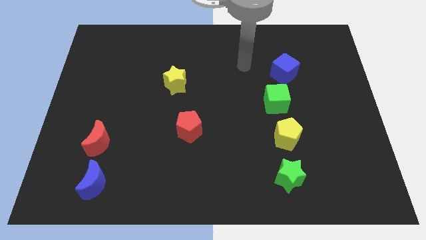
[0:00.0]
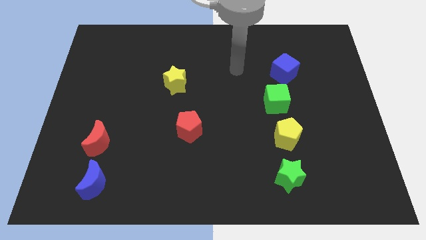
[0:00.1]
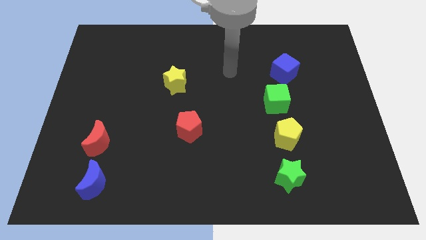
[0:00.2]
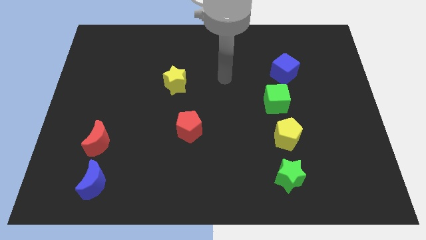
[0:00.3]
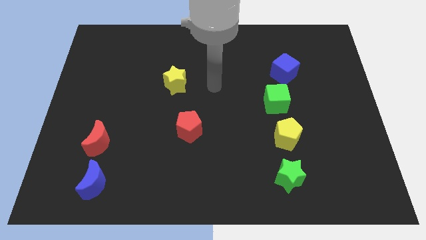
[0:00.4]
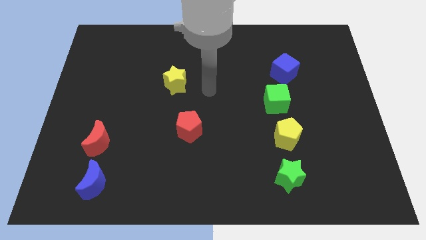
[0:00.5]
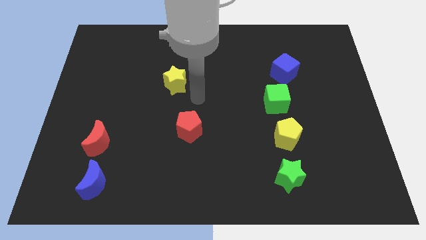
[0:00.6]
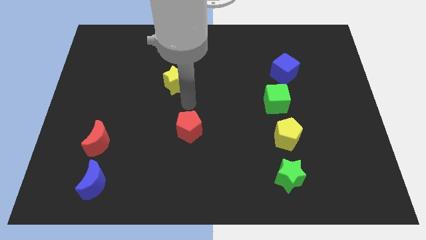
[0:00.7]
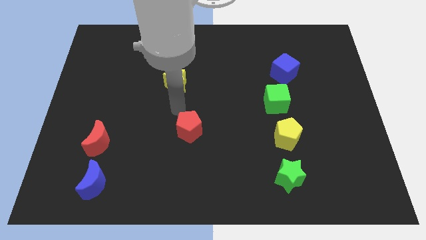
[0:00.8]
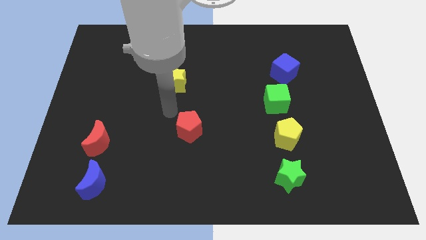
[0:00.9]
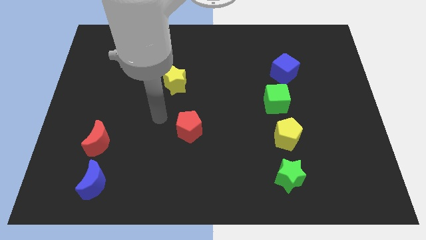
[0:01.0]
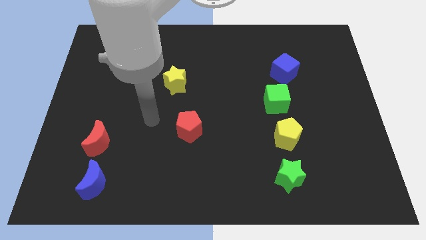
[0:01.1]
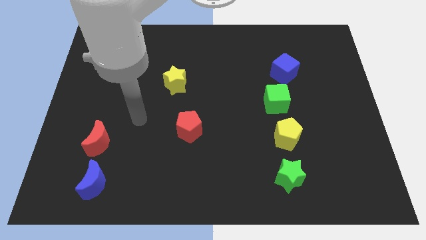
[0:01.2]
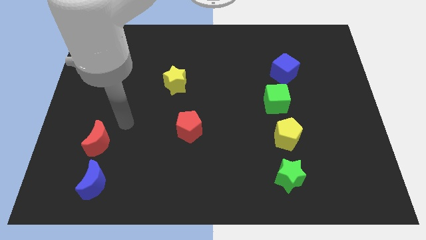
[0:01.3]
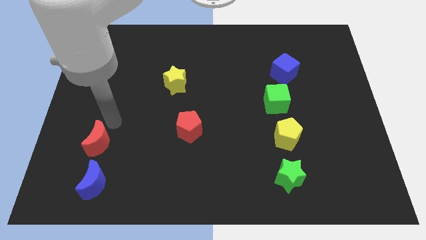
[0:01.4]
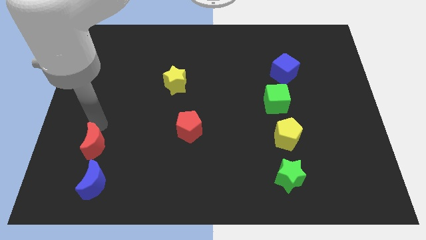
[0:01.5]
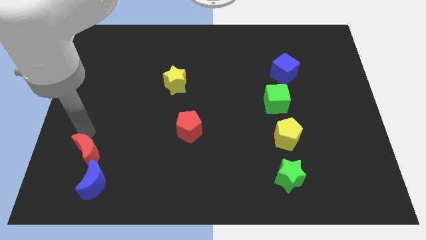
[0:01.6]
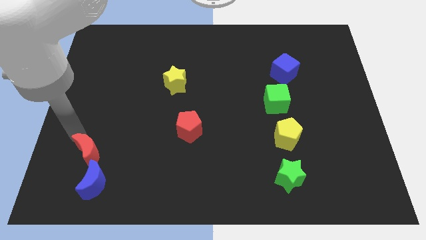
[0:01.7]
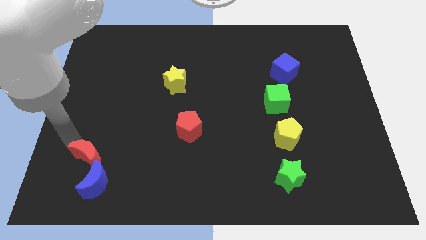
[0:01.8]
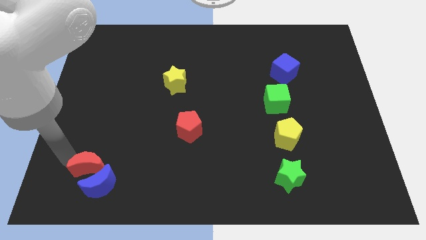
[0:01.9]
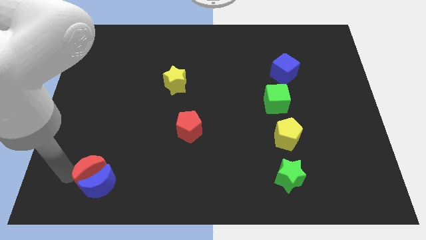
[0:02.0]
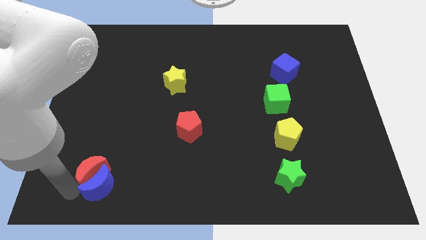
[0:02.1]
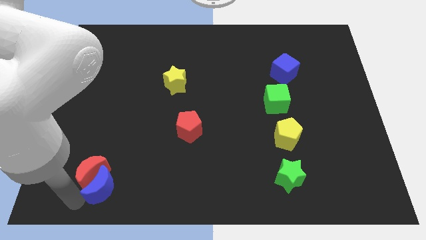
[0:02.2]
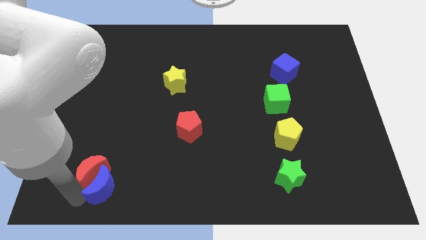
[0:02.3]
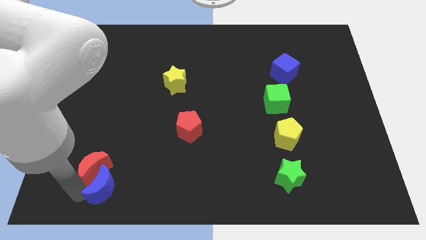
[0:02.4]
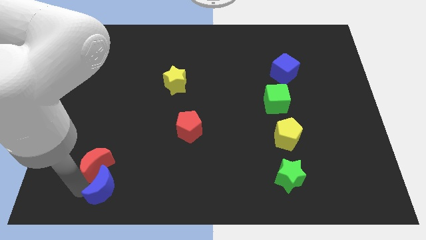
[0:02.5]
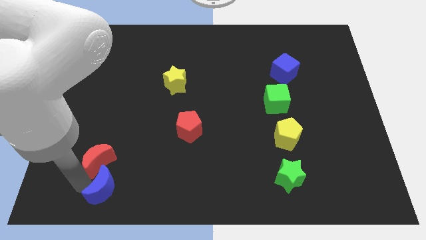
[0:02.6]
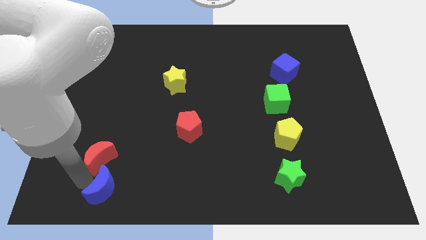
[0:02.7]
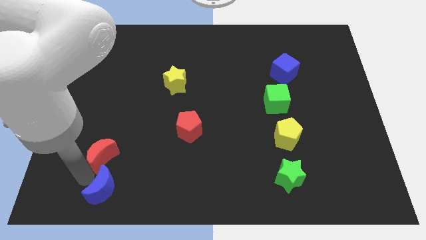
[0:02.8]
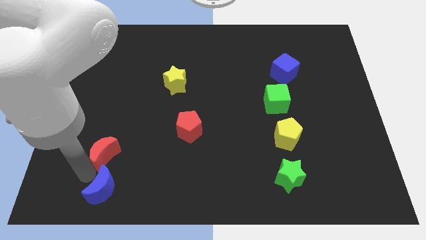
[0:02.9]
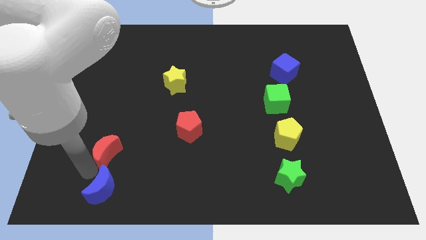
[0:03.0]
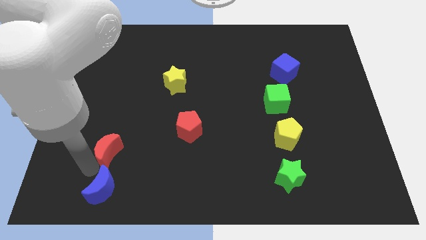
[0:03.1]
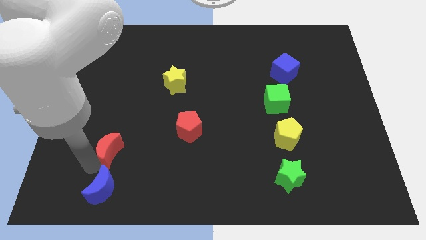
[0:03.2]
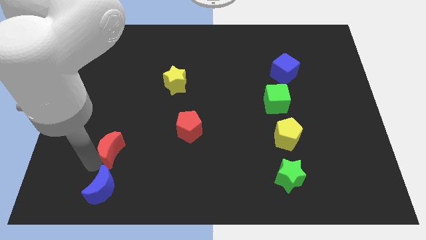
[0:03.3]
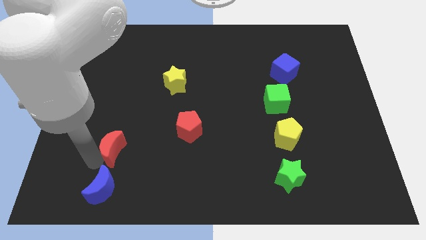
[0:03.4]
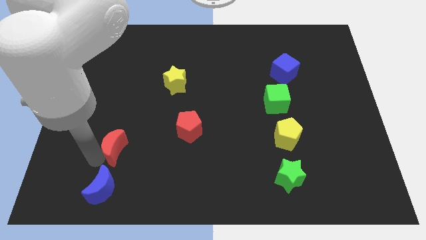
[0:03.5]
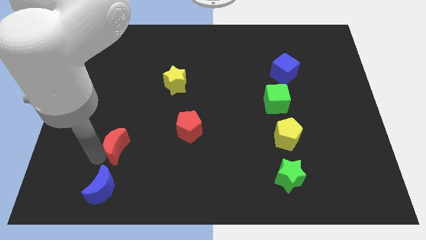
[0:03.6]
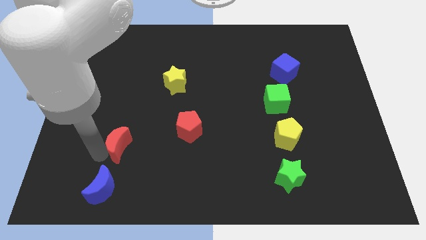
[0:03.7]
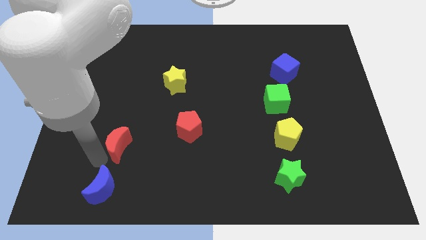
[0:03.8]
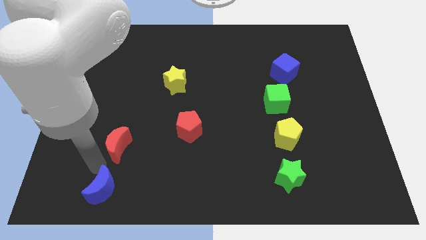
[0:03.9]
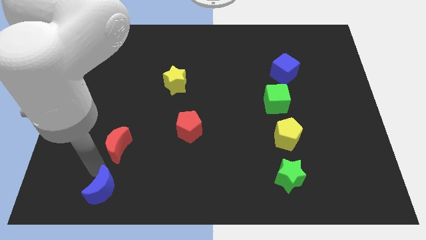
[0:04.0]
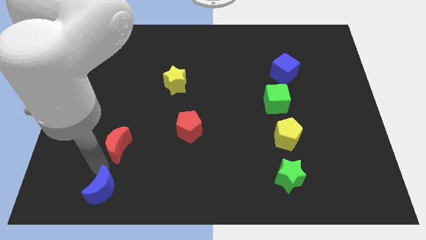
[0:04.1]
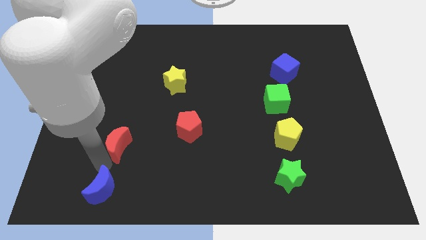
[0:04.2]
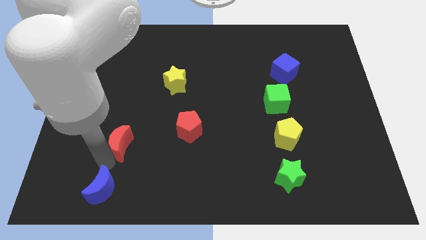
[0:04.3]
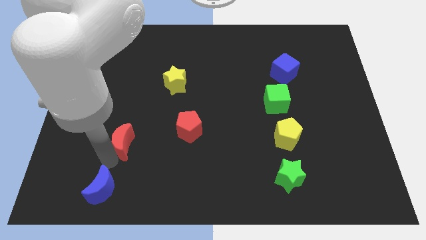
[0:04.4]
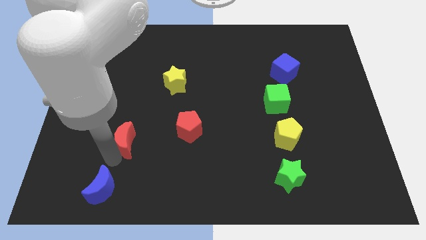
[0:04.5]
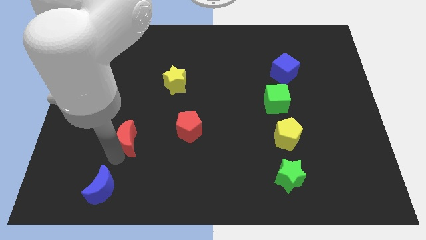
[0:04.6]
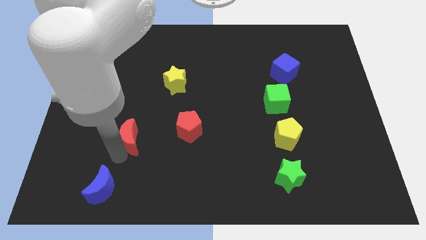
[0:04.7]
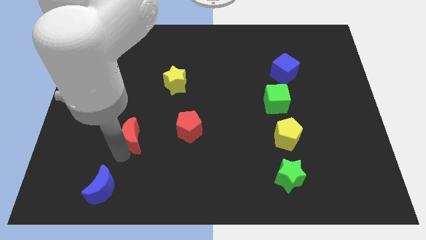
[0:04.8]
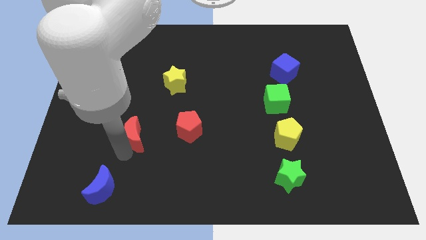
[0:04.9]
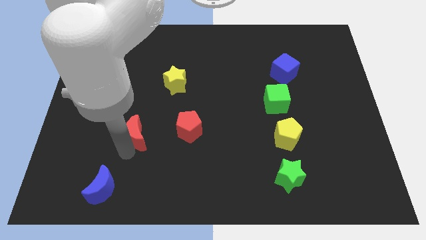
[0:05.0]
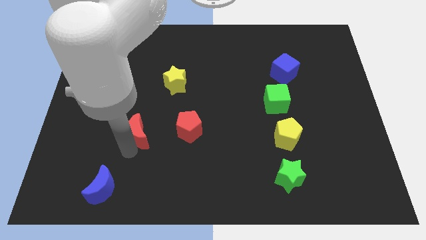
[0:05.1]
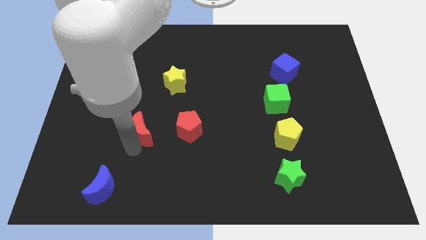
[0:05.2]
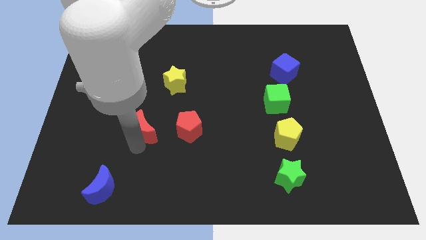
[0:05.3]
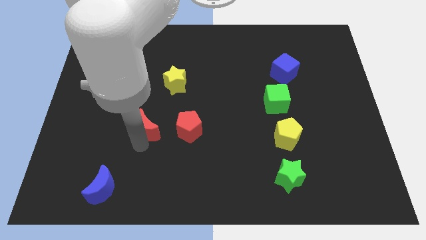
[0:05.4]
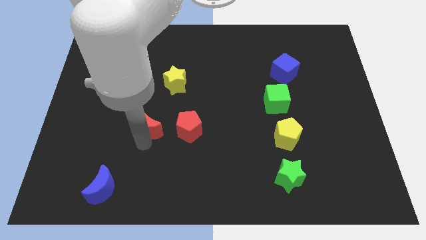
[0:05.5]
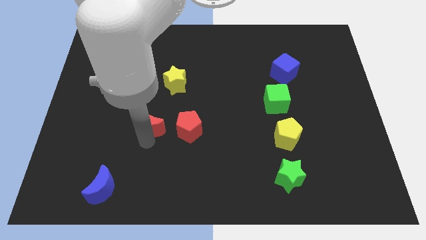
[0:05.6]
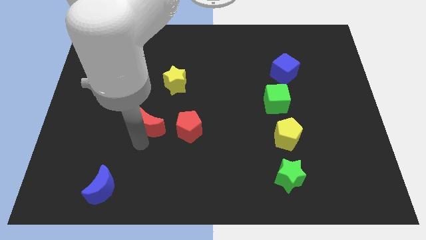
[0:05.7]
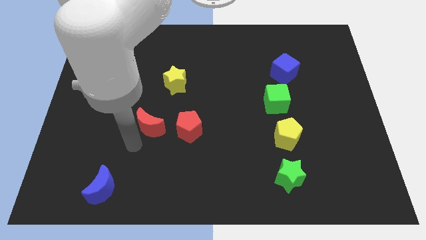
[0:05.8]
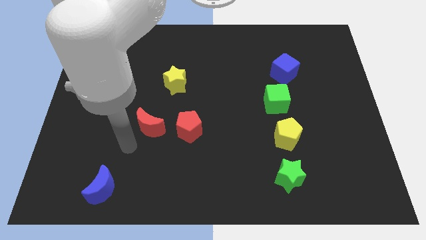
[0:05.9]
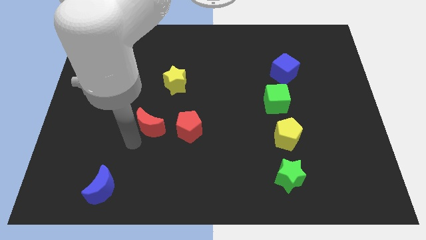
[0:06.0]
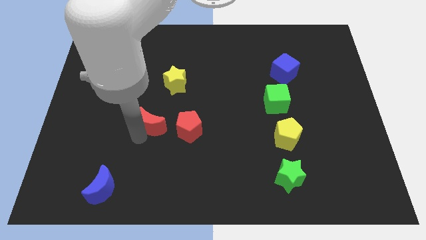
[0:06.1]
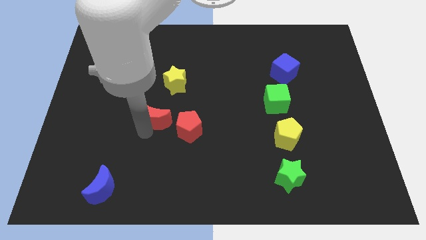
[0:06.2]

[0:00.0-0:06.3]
push the red moon diagonally up and to the left of the red pentagon

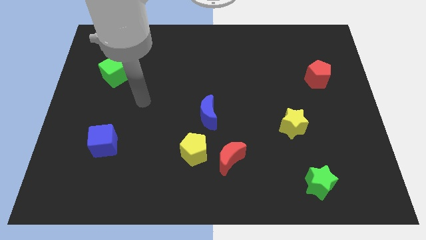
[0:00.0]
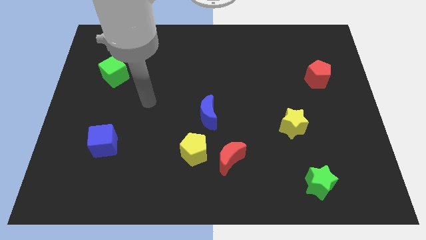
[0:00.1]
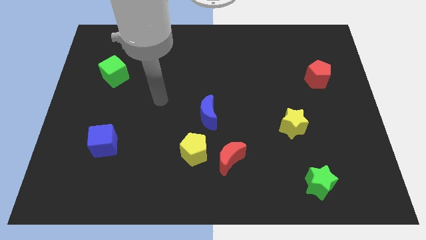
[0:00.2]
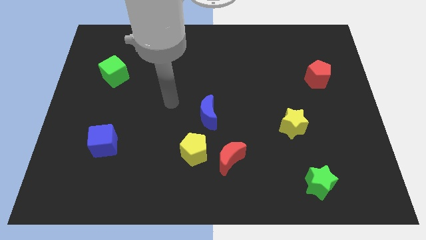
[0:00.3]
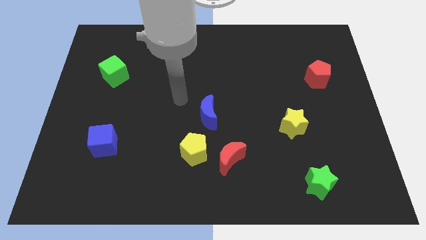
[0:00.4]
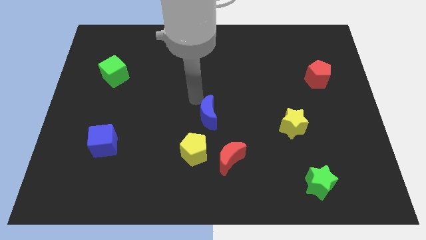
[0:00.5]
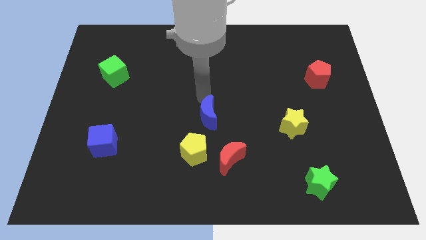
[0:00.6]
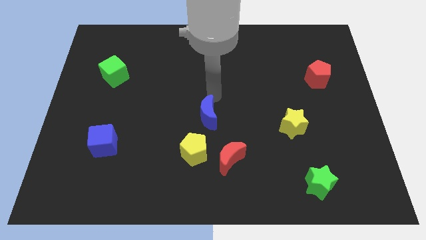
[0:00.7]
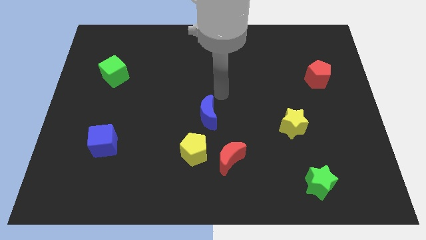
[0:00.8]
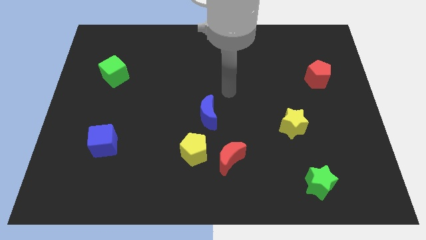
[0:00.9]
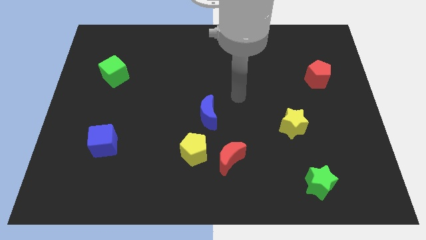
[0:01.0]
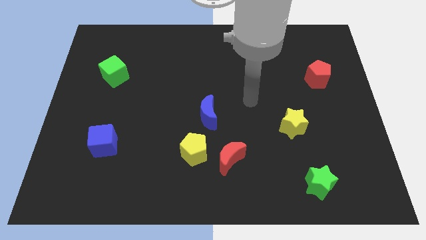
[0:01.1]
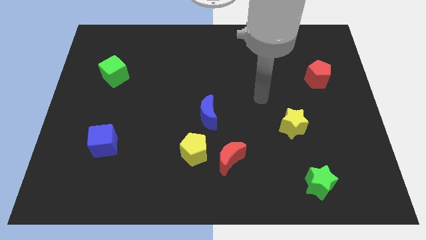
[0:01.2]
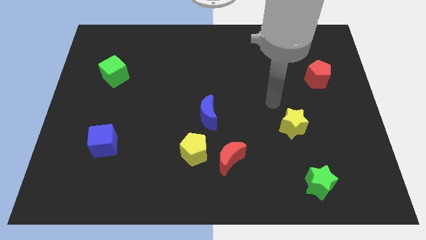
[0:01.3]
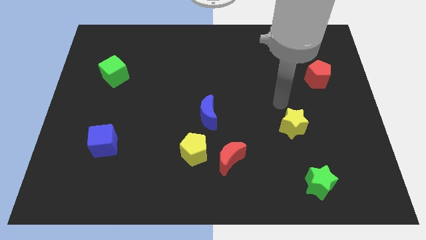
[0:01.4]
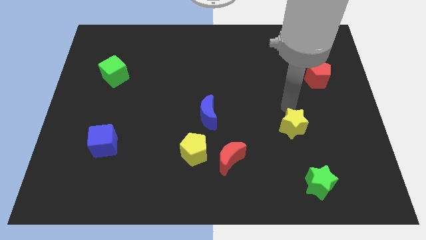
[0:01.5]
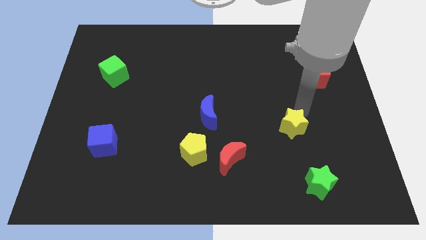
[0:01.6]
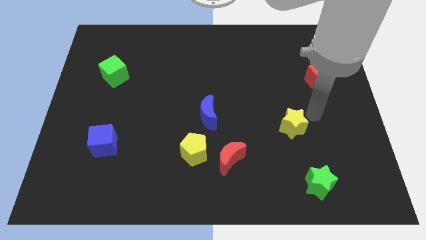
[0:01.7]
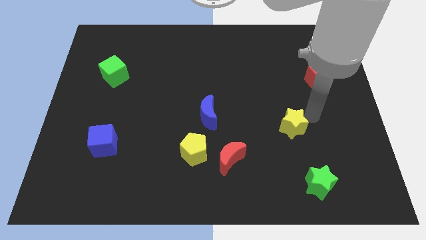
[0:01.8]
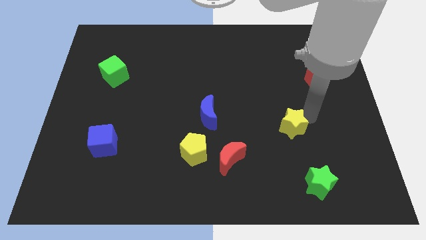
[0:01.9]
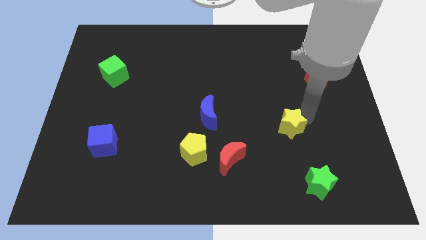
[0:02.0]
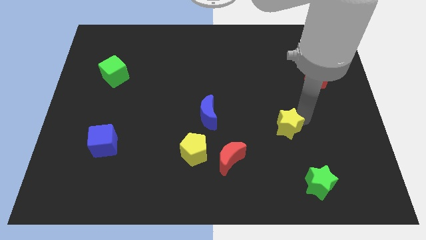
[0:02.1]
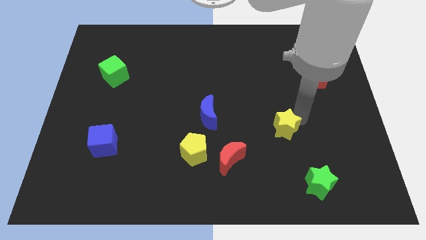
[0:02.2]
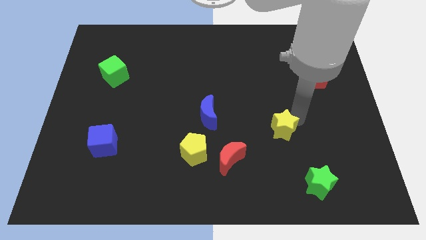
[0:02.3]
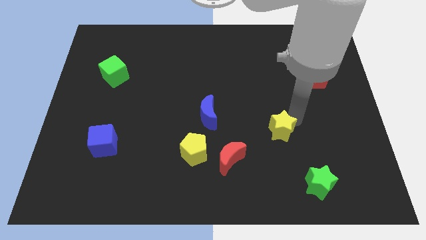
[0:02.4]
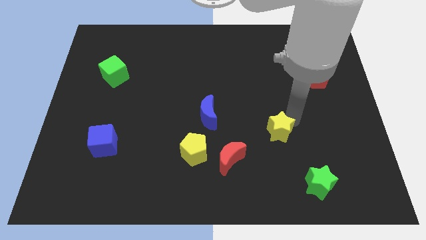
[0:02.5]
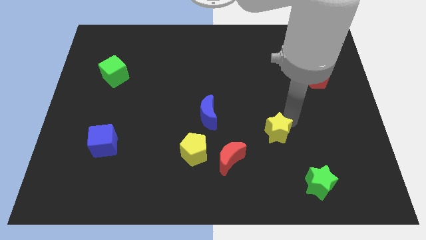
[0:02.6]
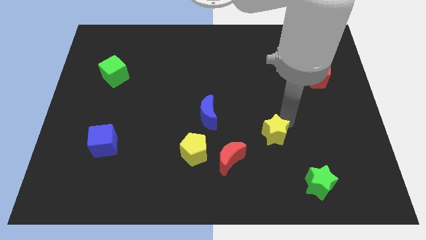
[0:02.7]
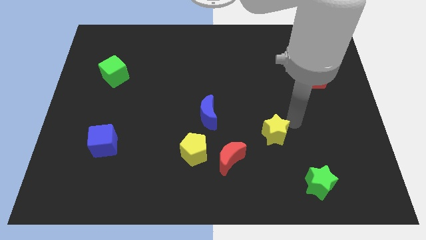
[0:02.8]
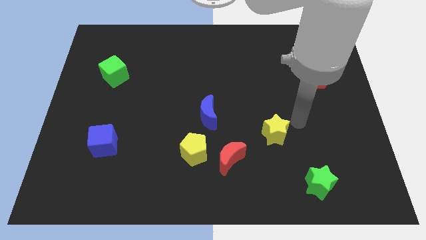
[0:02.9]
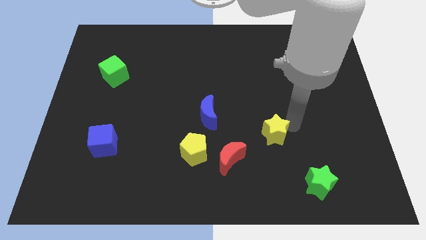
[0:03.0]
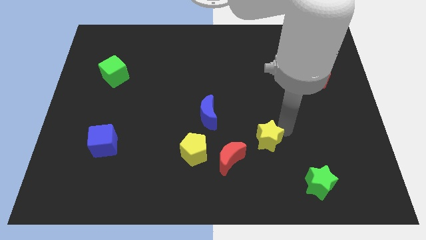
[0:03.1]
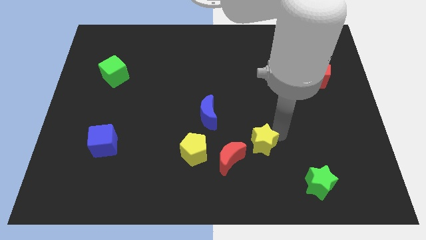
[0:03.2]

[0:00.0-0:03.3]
move the yellow star right of the yellow pentagon
